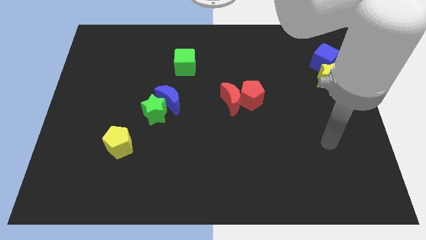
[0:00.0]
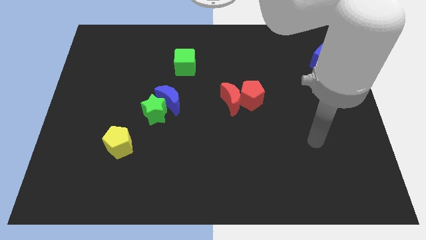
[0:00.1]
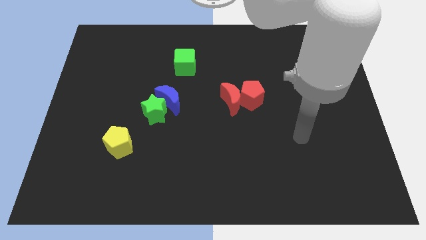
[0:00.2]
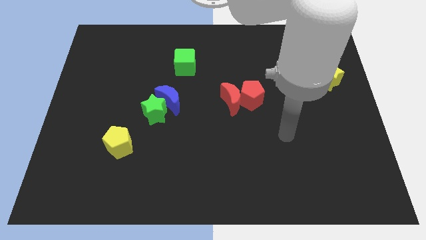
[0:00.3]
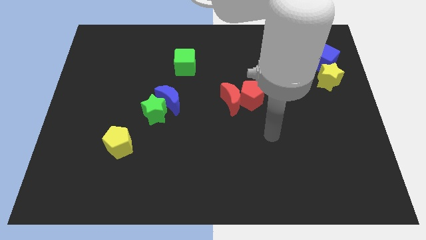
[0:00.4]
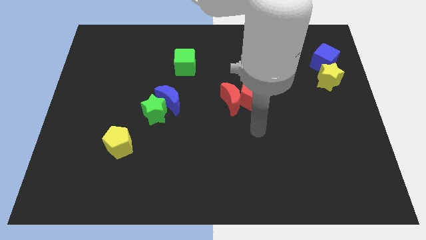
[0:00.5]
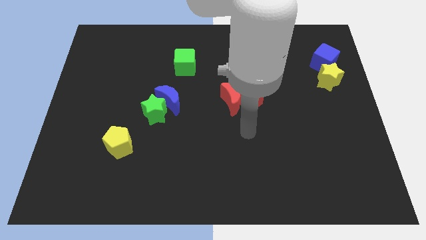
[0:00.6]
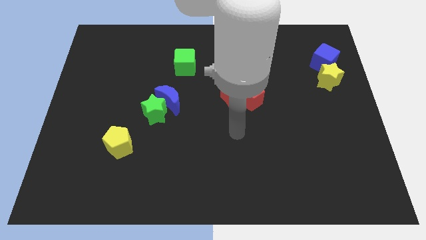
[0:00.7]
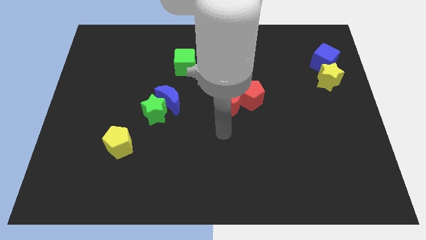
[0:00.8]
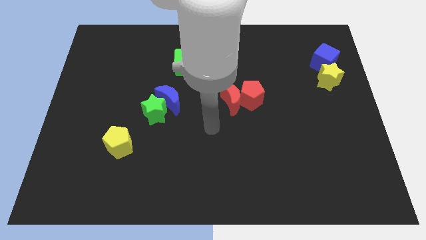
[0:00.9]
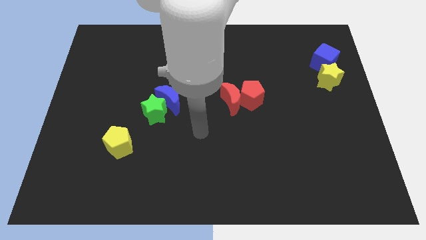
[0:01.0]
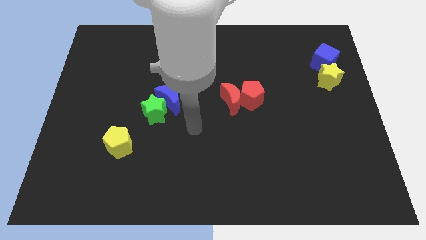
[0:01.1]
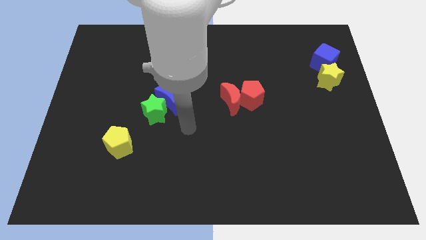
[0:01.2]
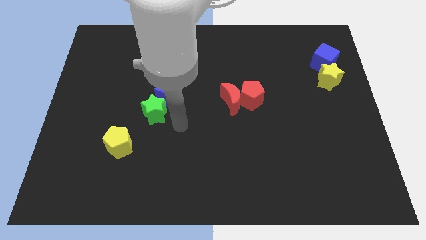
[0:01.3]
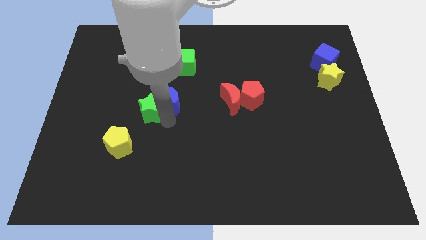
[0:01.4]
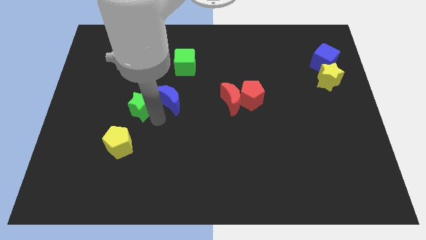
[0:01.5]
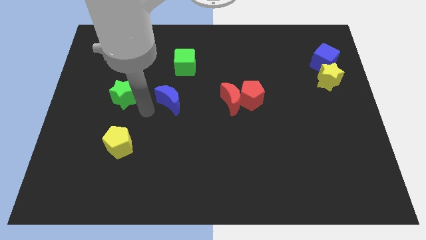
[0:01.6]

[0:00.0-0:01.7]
move the blue moon away from the green star

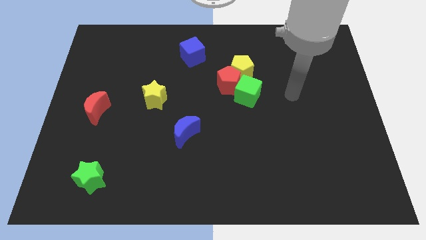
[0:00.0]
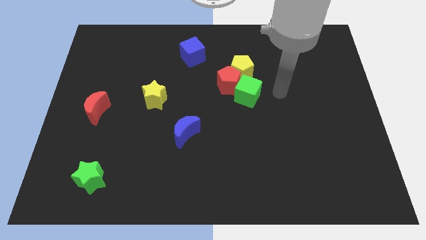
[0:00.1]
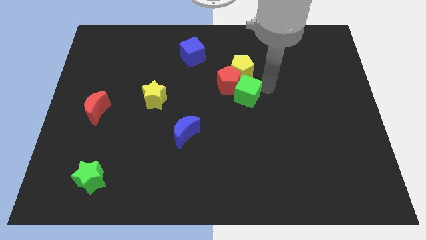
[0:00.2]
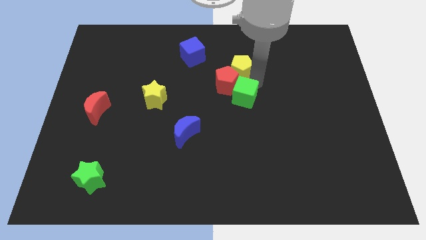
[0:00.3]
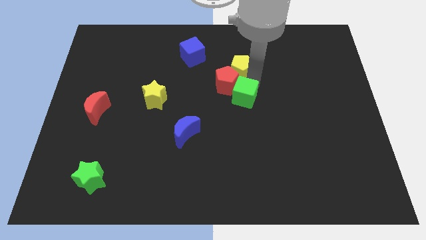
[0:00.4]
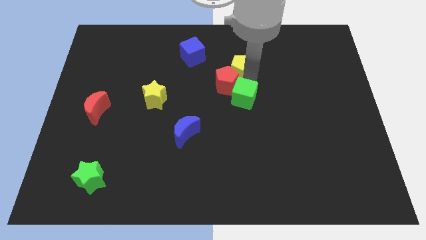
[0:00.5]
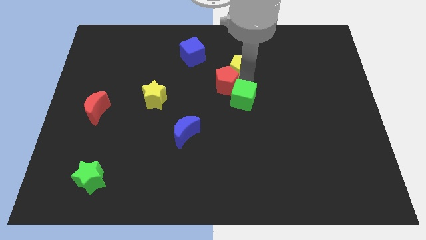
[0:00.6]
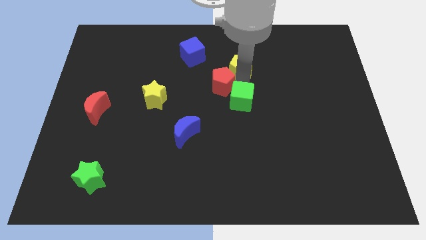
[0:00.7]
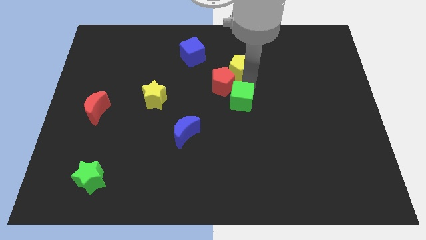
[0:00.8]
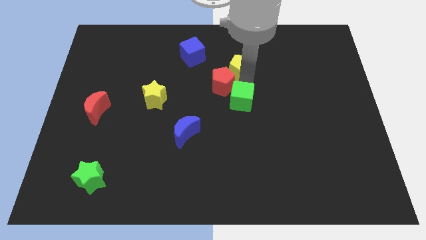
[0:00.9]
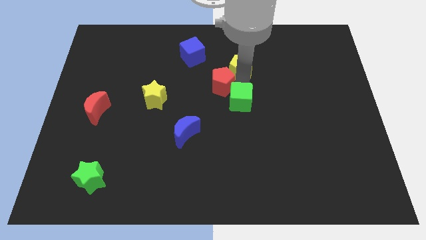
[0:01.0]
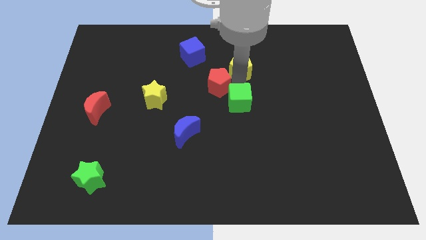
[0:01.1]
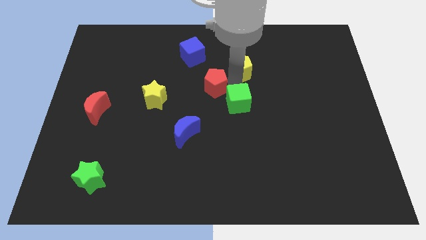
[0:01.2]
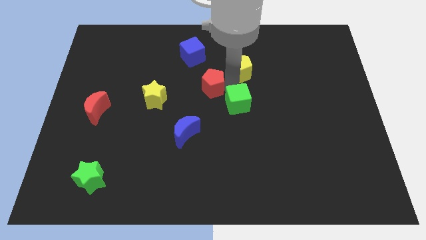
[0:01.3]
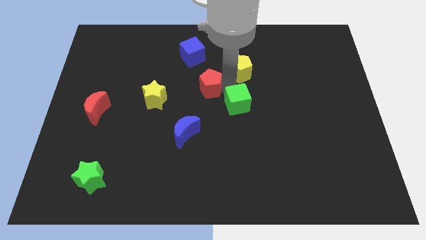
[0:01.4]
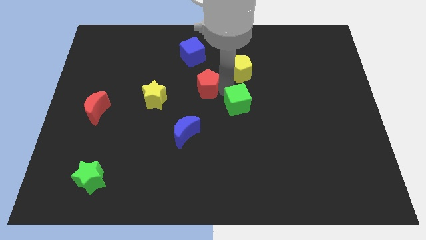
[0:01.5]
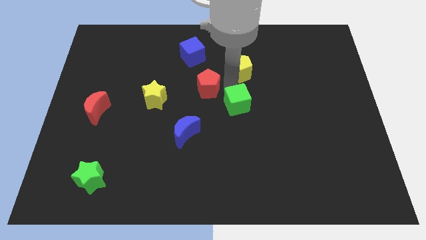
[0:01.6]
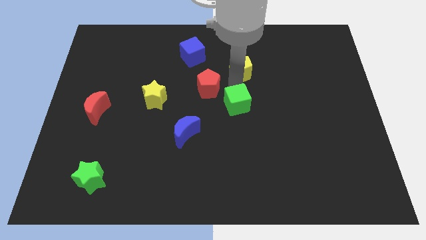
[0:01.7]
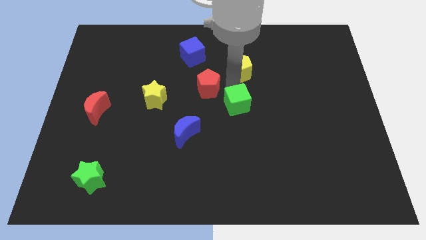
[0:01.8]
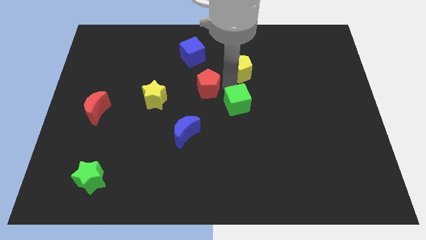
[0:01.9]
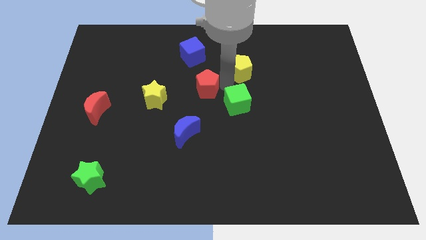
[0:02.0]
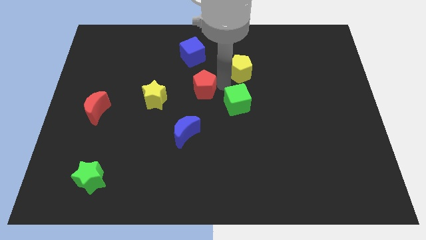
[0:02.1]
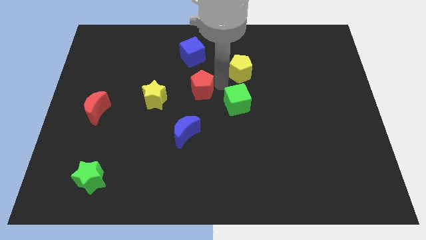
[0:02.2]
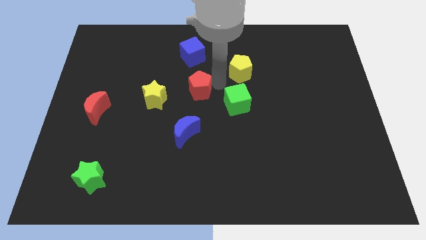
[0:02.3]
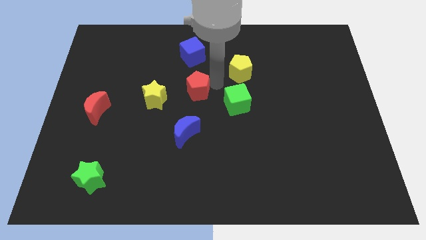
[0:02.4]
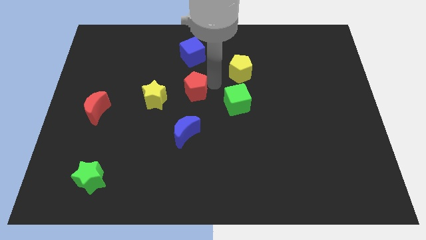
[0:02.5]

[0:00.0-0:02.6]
separate the red pentagon from the yellow pentagon and green cube

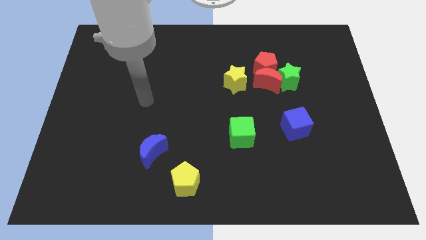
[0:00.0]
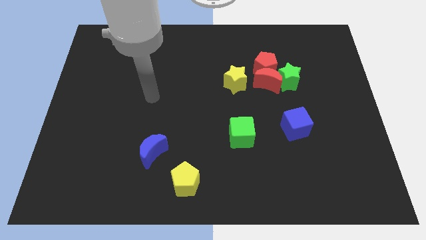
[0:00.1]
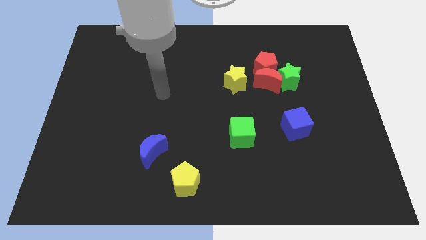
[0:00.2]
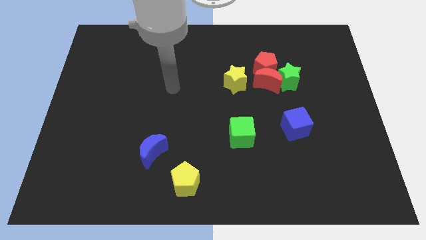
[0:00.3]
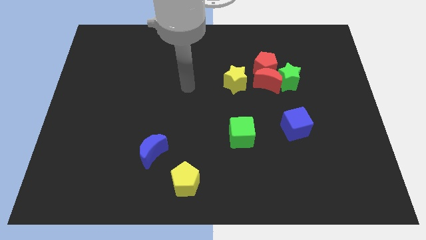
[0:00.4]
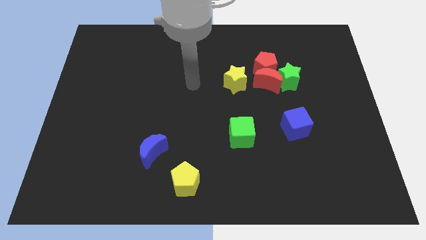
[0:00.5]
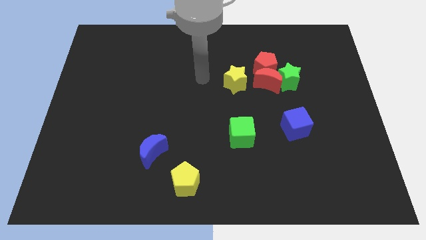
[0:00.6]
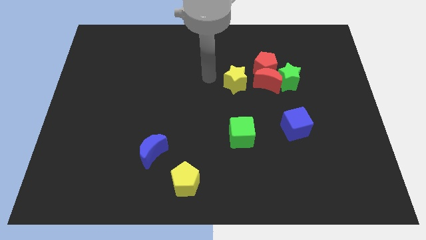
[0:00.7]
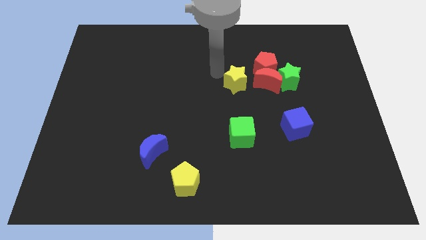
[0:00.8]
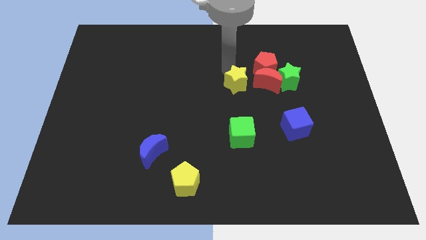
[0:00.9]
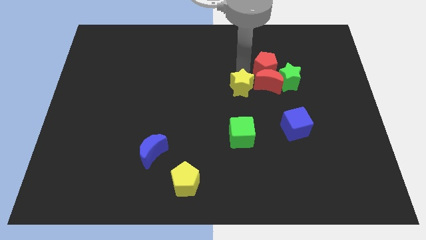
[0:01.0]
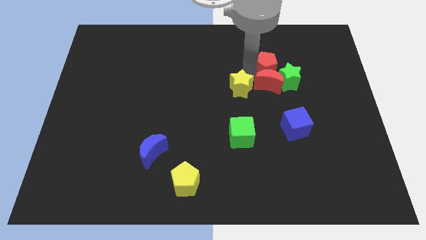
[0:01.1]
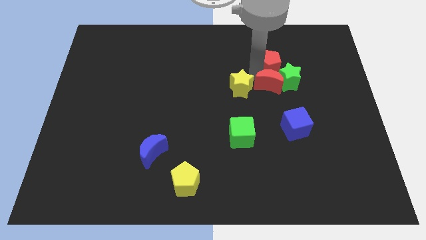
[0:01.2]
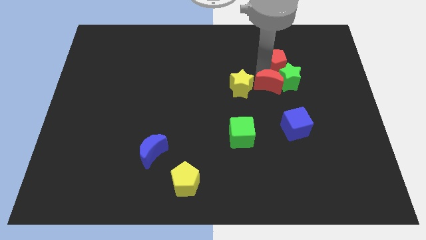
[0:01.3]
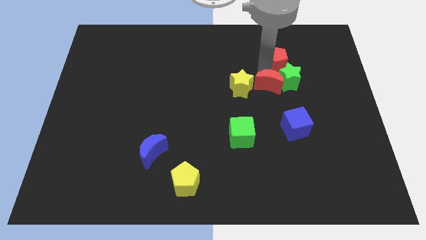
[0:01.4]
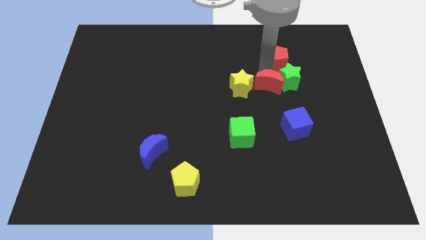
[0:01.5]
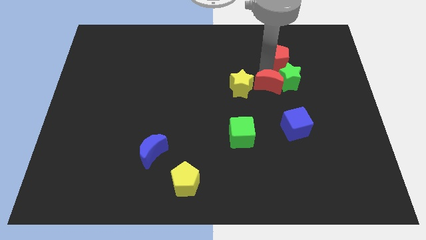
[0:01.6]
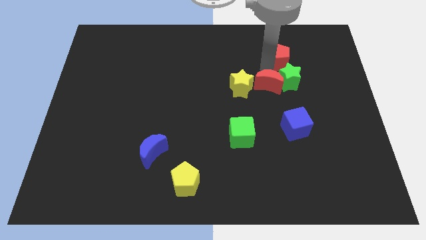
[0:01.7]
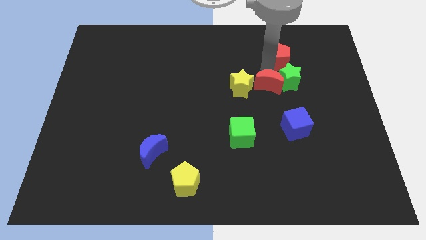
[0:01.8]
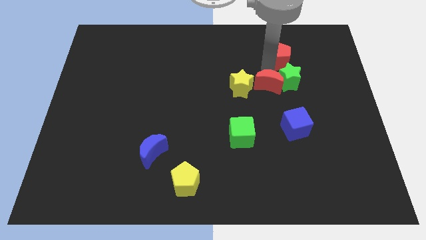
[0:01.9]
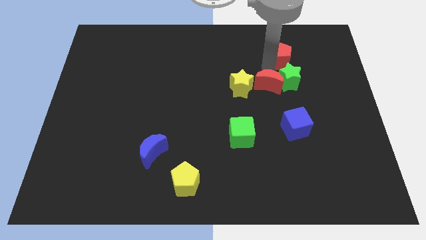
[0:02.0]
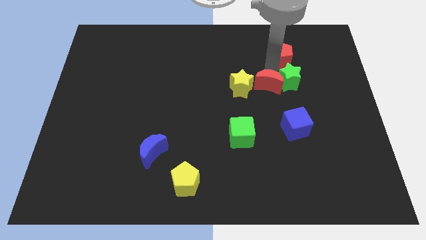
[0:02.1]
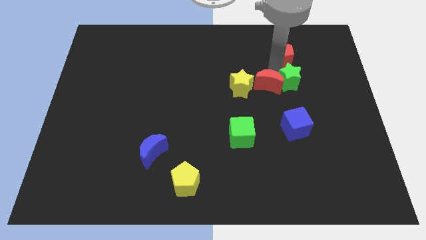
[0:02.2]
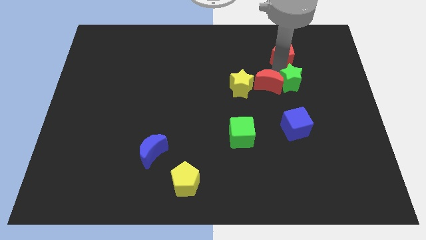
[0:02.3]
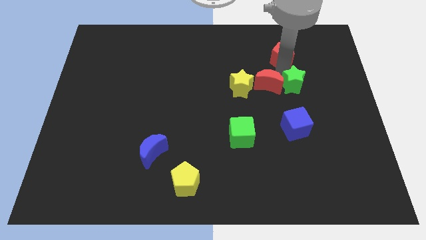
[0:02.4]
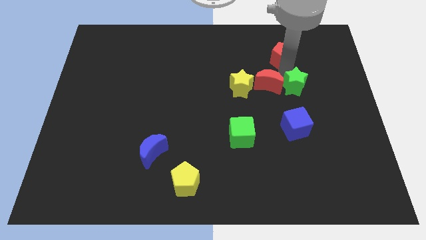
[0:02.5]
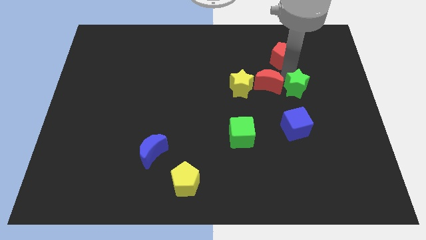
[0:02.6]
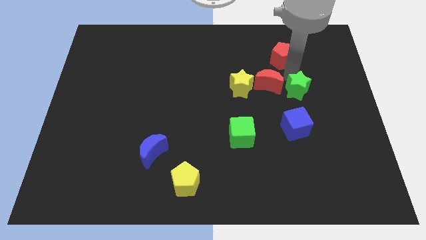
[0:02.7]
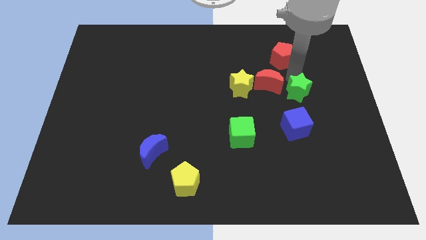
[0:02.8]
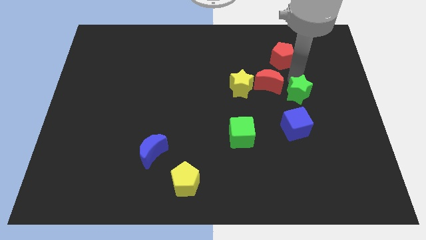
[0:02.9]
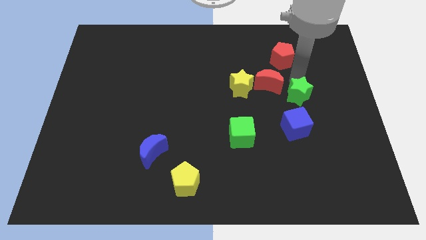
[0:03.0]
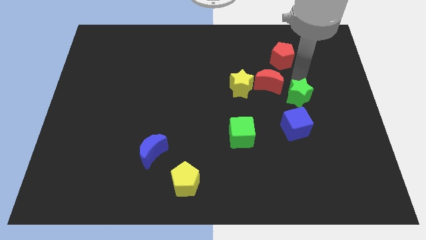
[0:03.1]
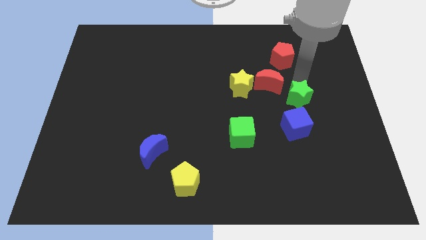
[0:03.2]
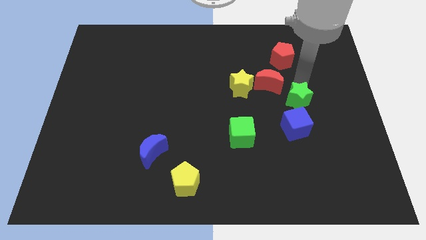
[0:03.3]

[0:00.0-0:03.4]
move the green star away from the red moon and red pentagon

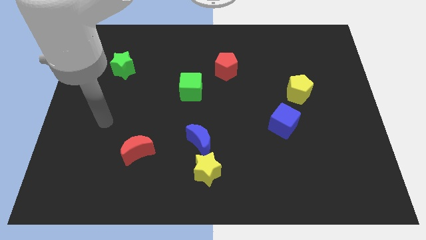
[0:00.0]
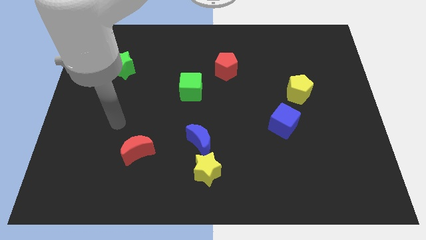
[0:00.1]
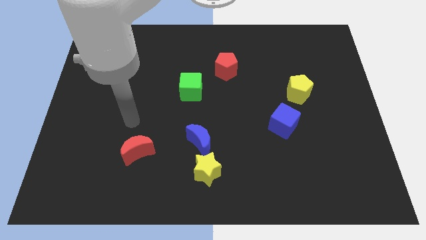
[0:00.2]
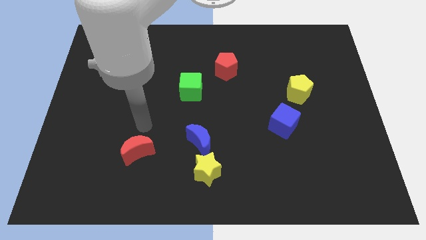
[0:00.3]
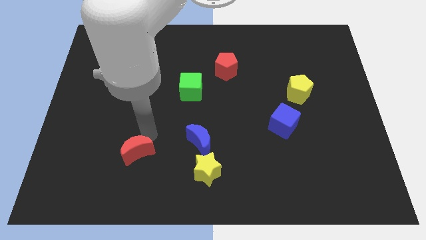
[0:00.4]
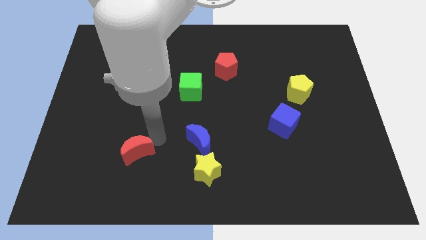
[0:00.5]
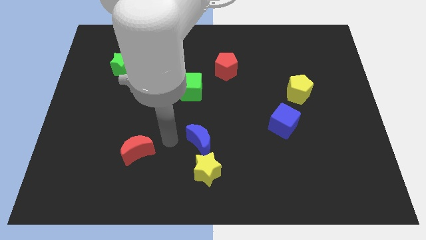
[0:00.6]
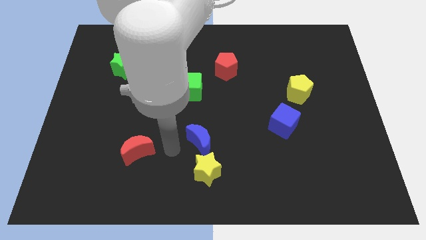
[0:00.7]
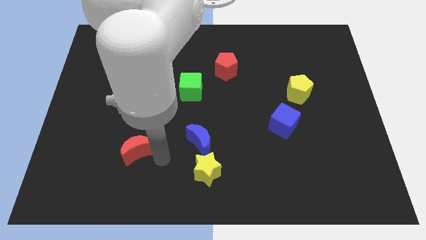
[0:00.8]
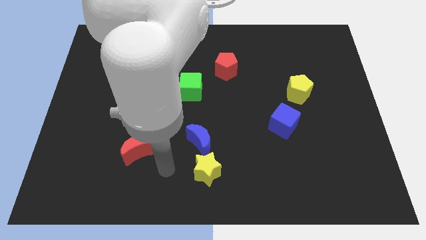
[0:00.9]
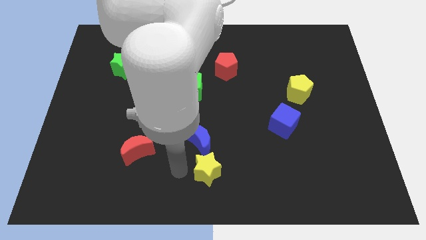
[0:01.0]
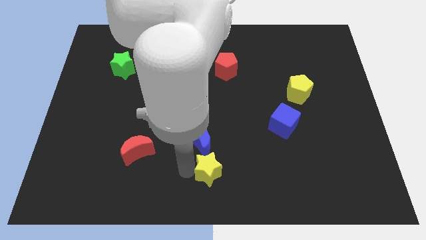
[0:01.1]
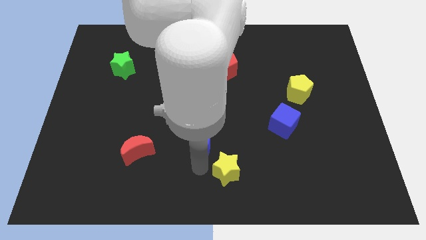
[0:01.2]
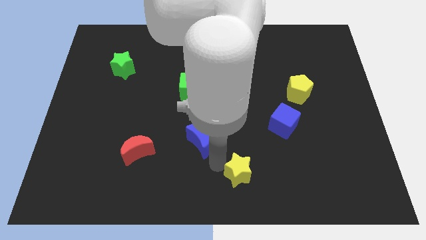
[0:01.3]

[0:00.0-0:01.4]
pull the blue moon apart from the yellow star

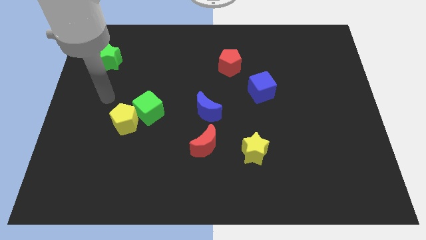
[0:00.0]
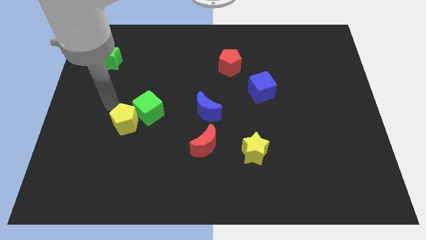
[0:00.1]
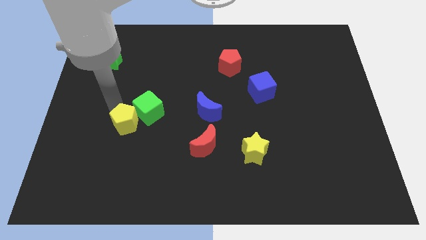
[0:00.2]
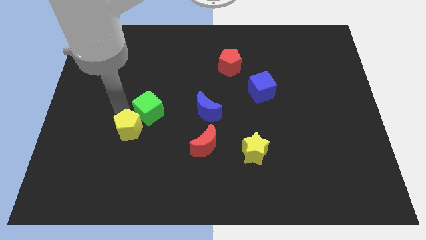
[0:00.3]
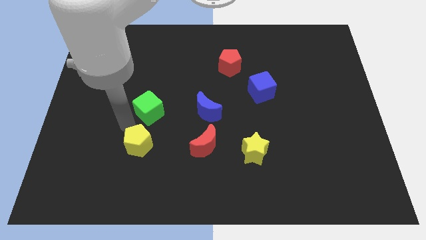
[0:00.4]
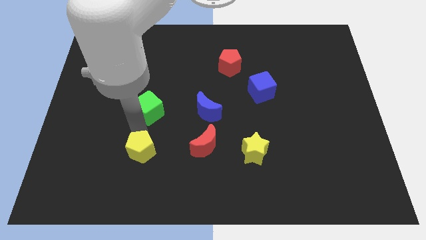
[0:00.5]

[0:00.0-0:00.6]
separate the green cube from the yellow pentagon
